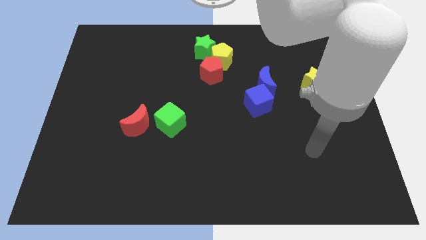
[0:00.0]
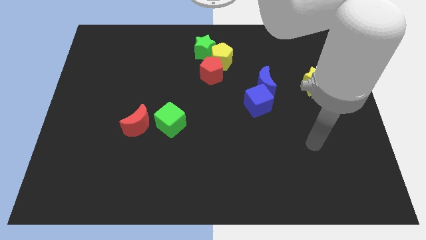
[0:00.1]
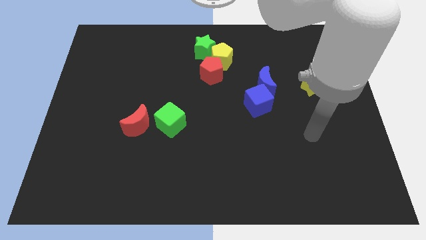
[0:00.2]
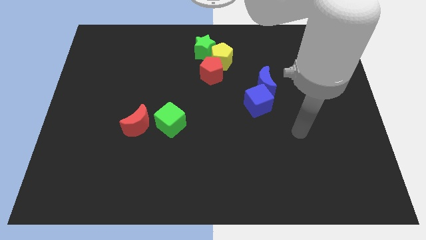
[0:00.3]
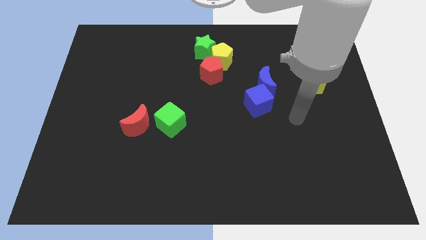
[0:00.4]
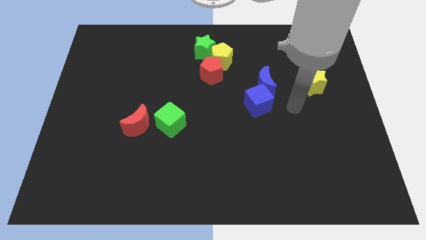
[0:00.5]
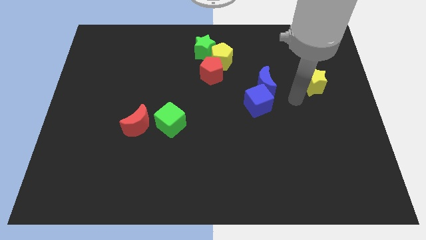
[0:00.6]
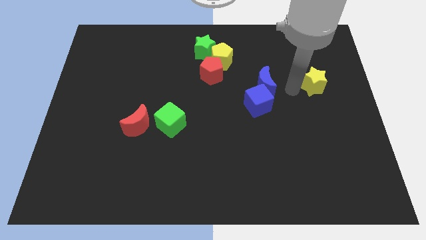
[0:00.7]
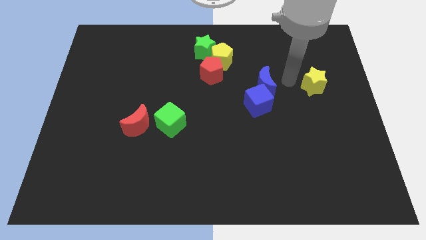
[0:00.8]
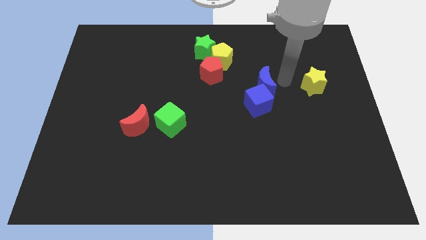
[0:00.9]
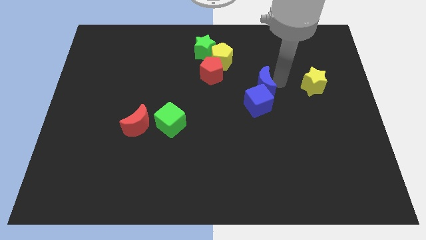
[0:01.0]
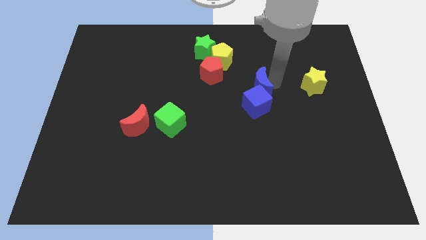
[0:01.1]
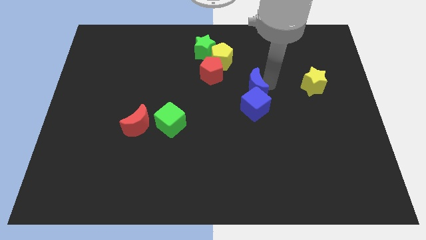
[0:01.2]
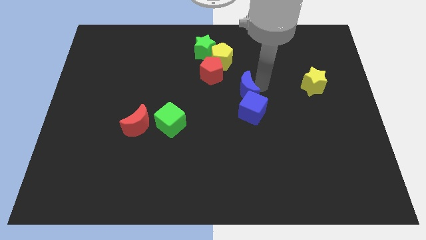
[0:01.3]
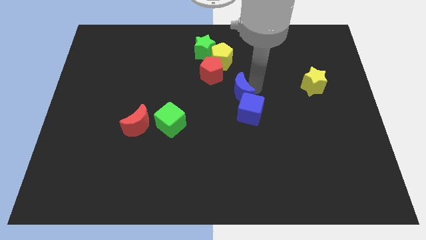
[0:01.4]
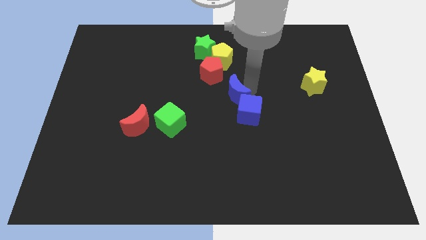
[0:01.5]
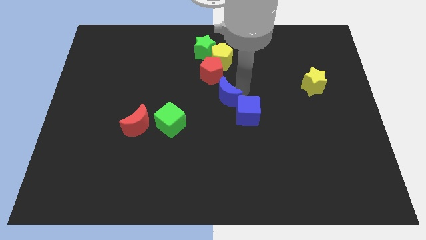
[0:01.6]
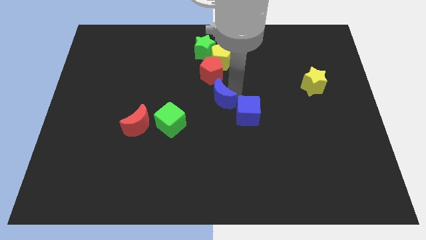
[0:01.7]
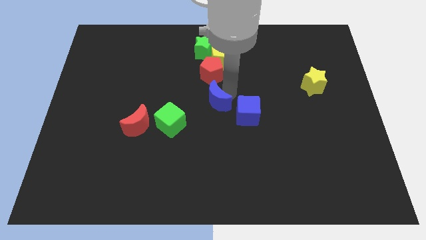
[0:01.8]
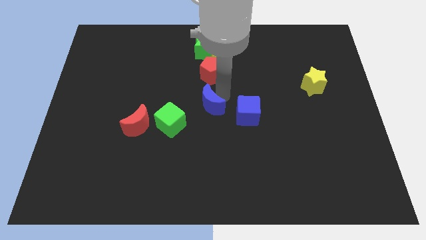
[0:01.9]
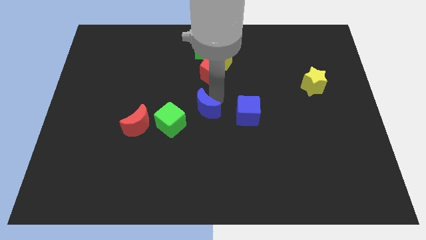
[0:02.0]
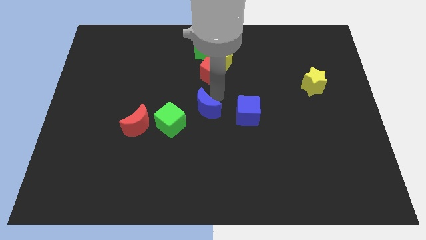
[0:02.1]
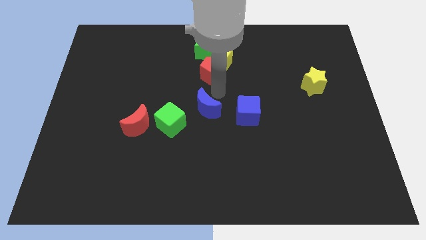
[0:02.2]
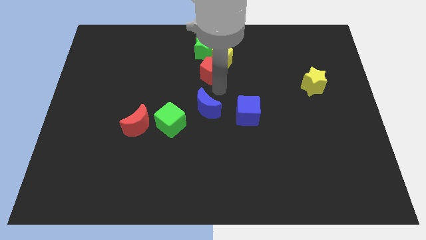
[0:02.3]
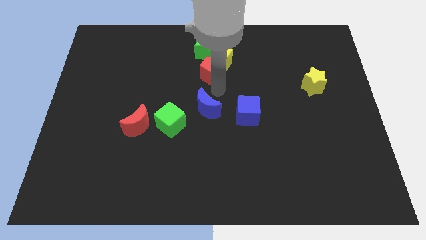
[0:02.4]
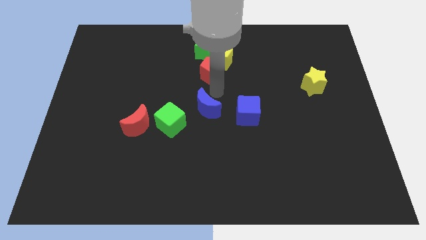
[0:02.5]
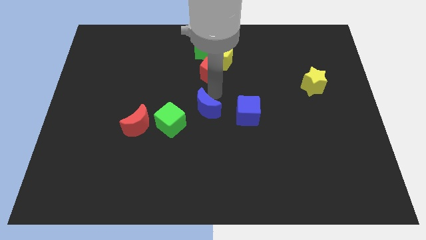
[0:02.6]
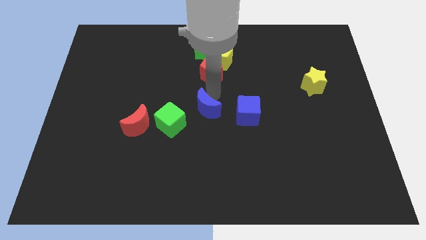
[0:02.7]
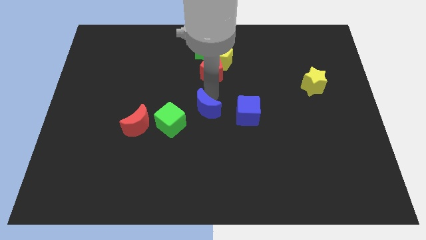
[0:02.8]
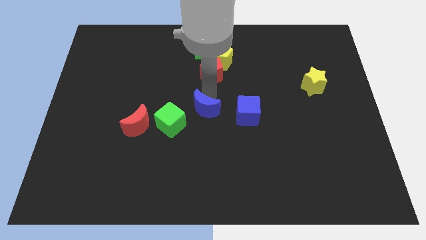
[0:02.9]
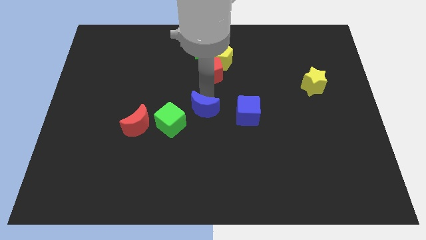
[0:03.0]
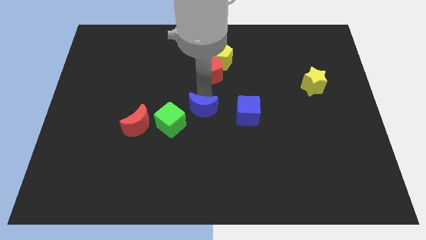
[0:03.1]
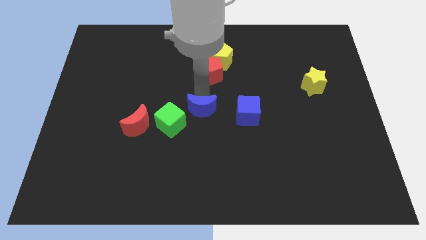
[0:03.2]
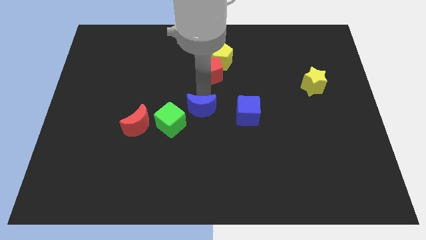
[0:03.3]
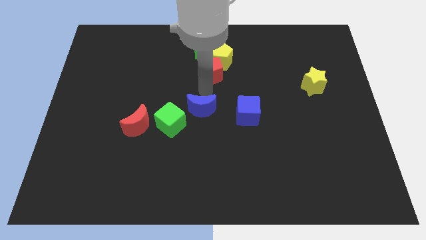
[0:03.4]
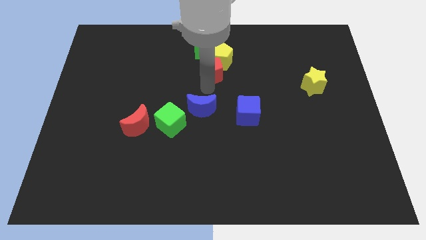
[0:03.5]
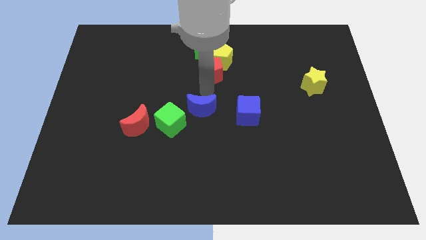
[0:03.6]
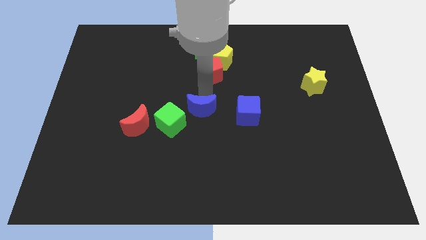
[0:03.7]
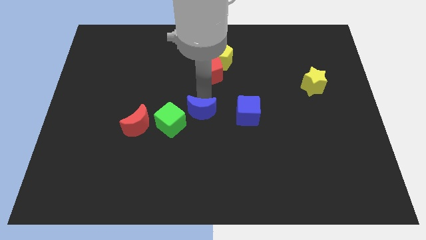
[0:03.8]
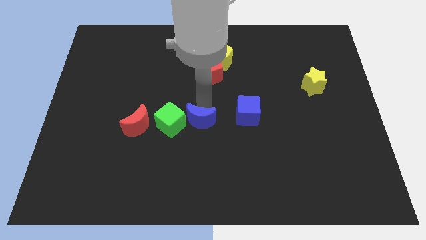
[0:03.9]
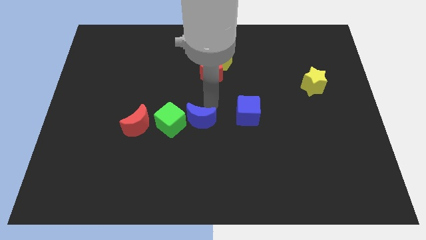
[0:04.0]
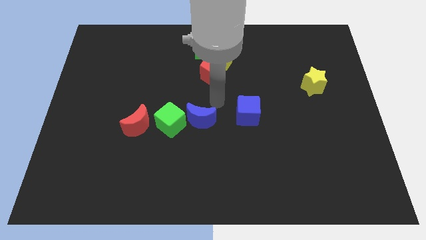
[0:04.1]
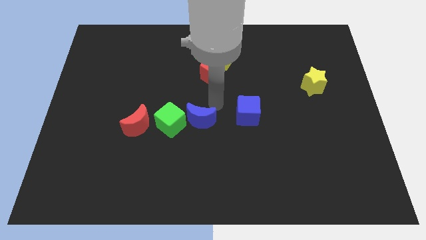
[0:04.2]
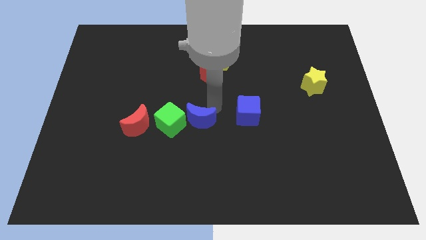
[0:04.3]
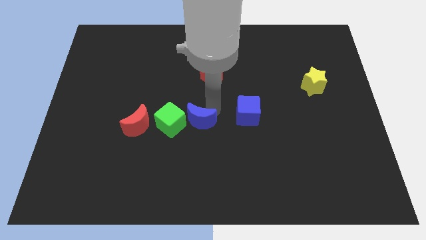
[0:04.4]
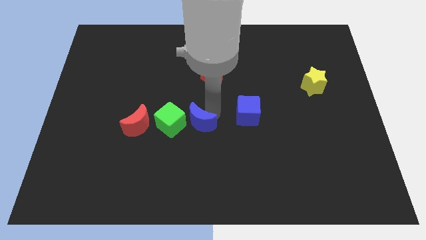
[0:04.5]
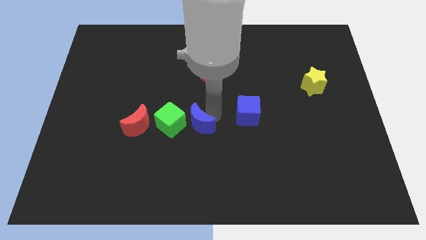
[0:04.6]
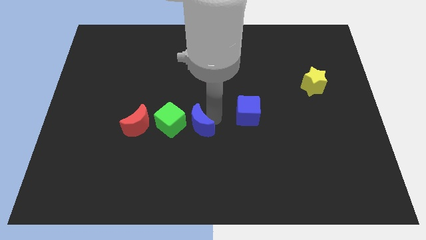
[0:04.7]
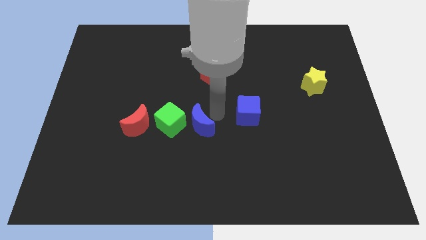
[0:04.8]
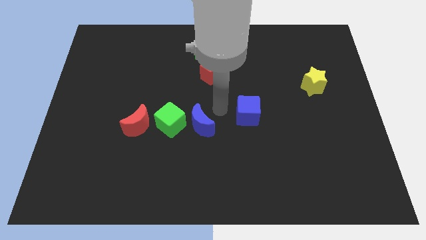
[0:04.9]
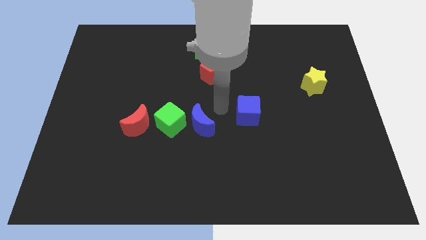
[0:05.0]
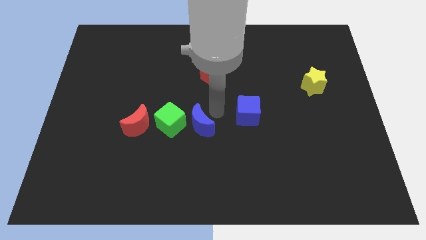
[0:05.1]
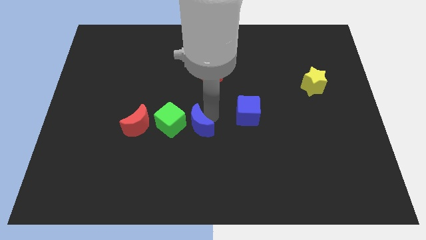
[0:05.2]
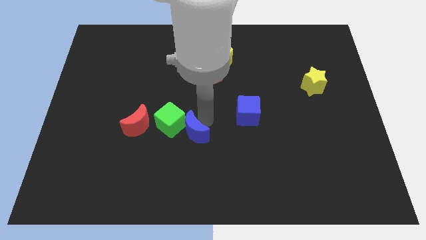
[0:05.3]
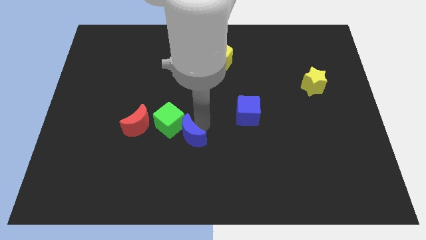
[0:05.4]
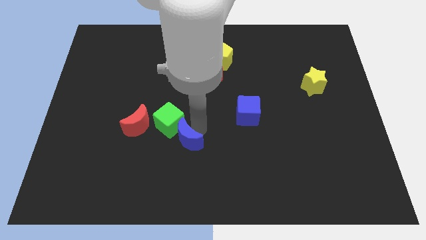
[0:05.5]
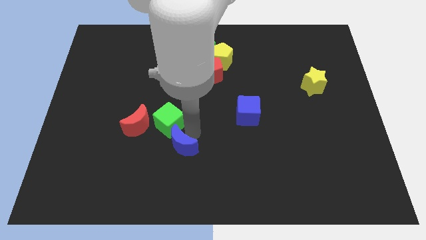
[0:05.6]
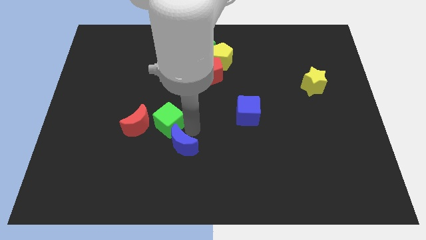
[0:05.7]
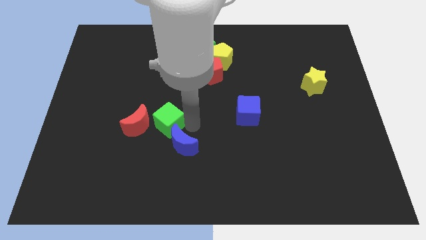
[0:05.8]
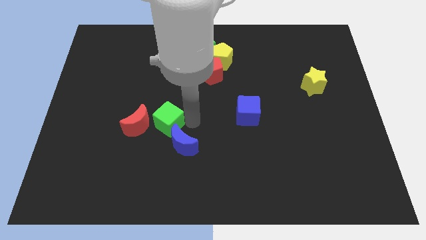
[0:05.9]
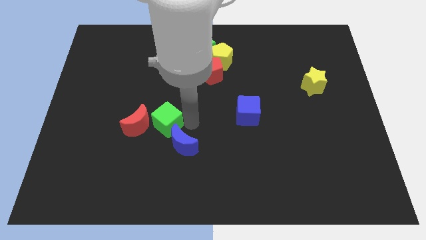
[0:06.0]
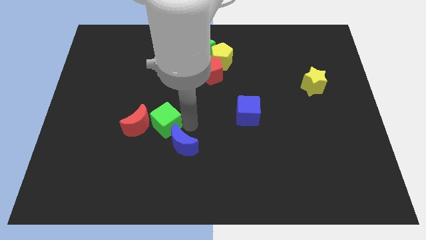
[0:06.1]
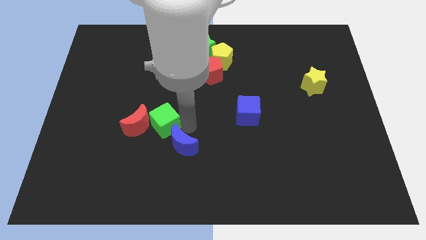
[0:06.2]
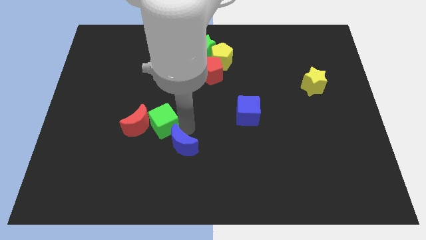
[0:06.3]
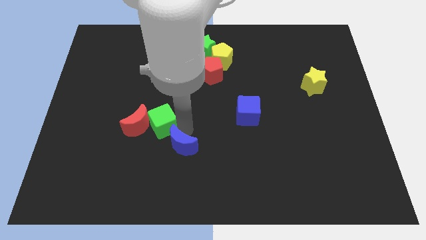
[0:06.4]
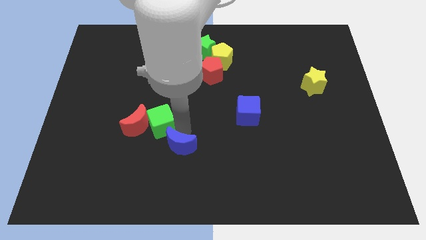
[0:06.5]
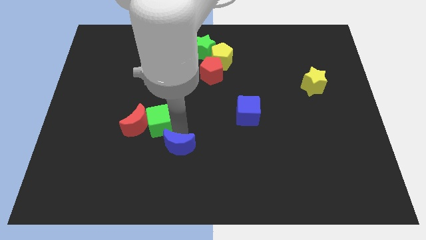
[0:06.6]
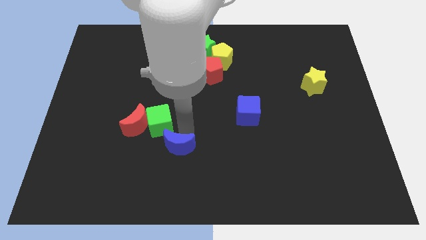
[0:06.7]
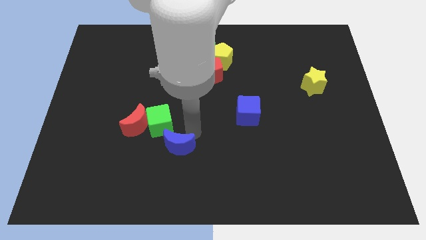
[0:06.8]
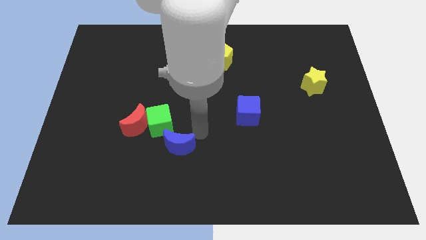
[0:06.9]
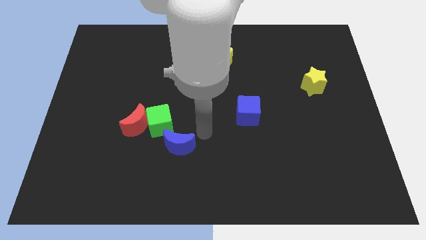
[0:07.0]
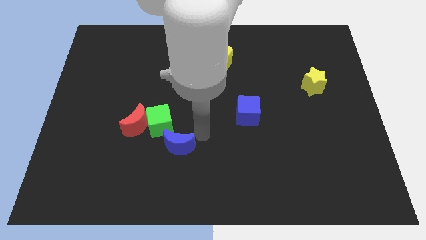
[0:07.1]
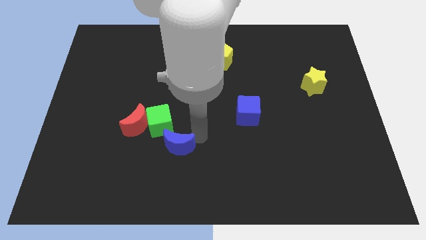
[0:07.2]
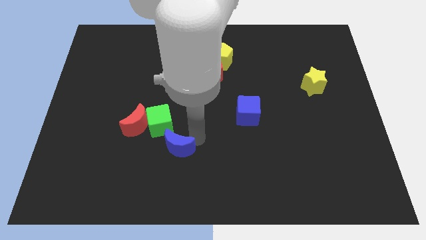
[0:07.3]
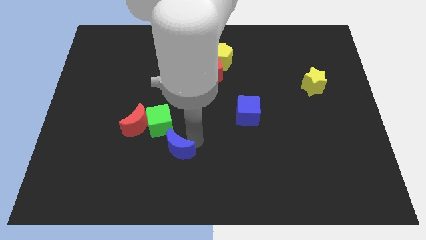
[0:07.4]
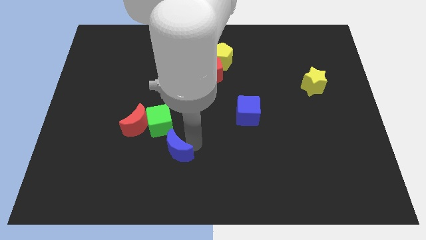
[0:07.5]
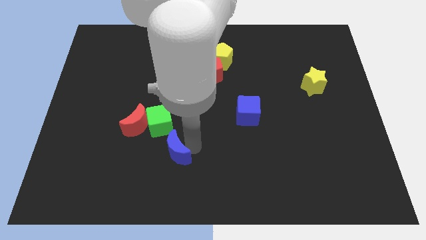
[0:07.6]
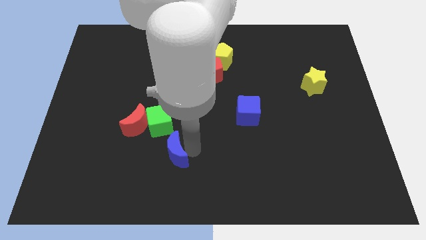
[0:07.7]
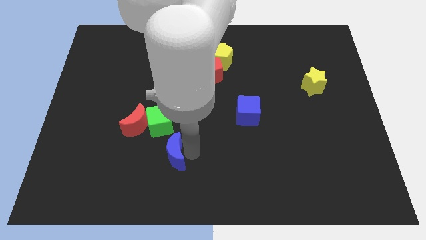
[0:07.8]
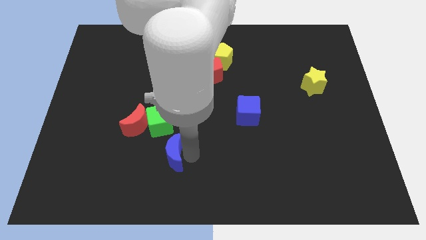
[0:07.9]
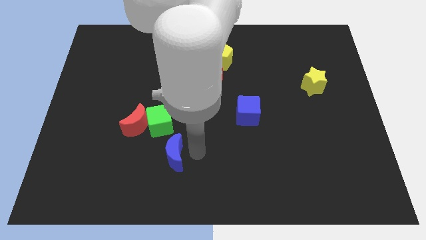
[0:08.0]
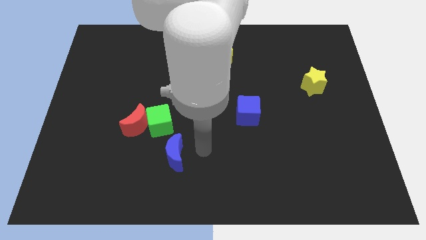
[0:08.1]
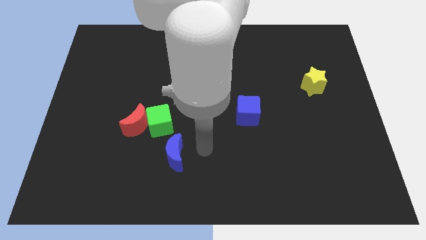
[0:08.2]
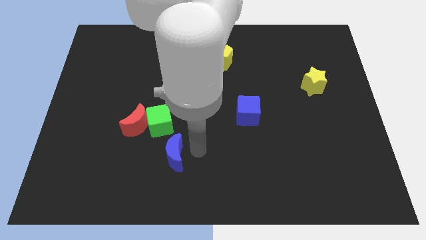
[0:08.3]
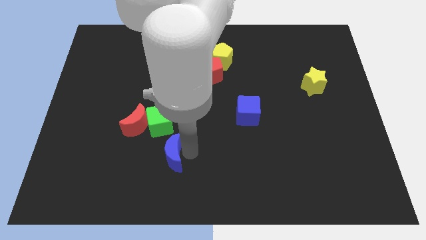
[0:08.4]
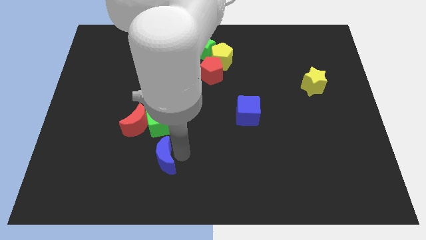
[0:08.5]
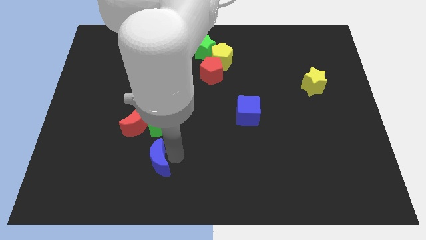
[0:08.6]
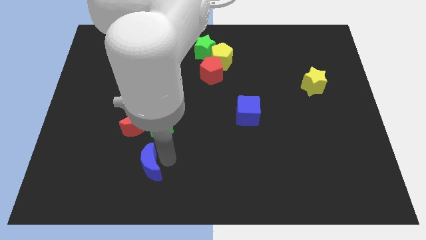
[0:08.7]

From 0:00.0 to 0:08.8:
slide the blue moon to the bottom of the red moon
